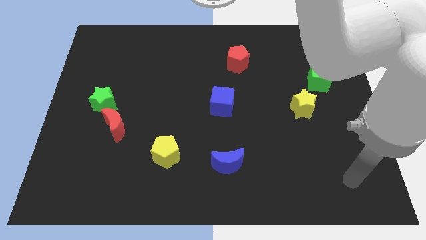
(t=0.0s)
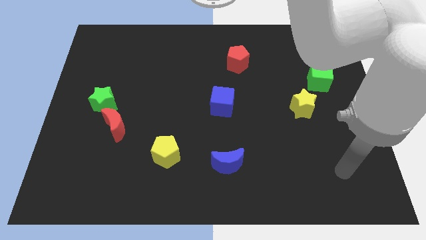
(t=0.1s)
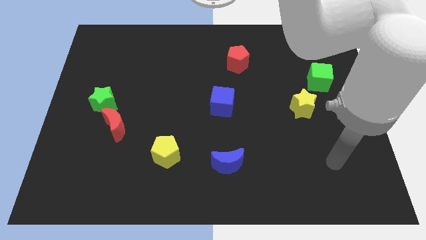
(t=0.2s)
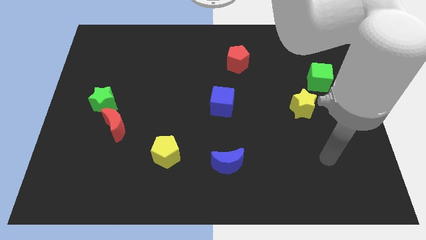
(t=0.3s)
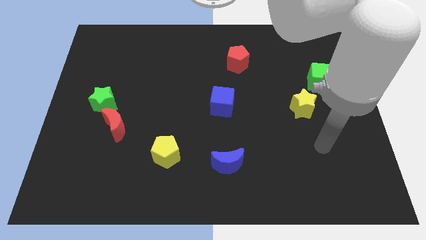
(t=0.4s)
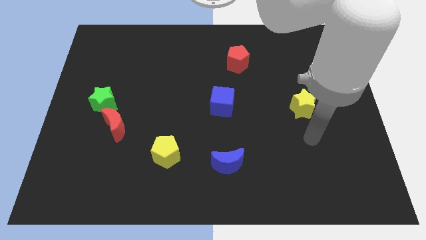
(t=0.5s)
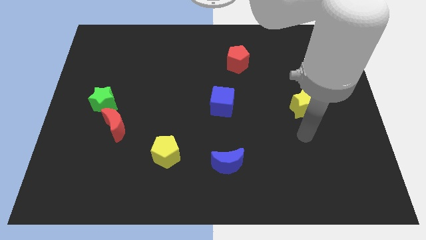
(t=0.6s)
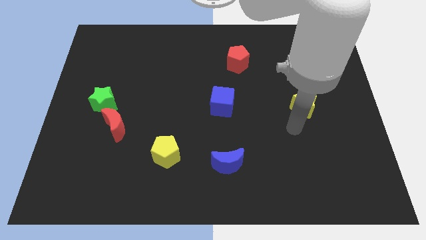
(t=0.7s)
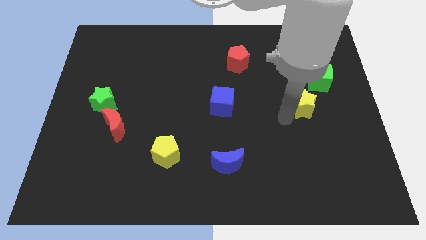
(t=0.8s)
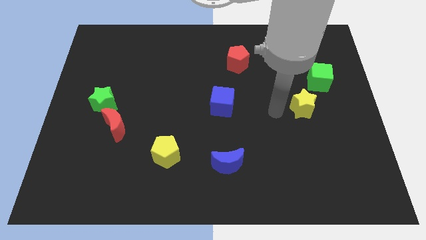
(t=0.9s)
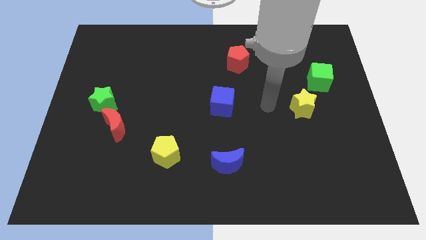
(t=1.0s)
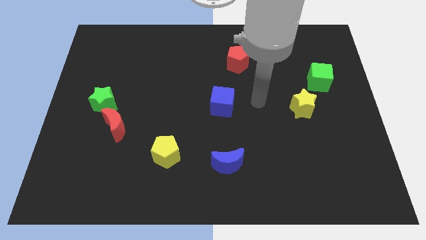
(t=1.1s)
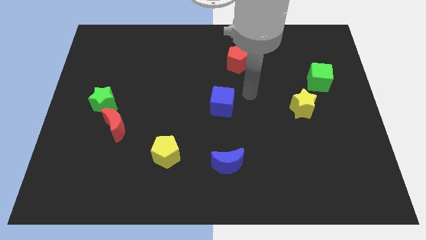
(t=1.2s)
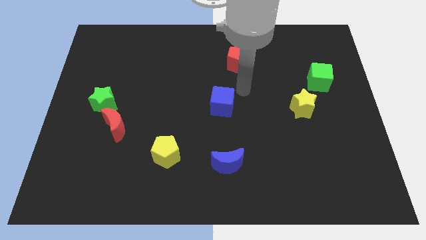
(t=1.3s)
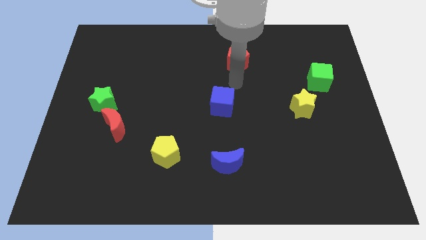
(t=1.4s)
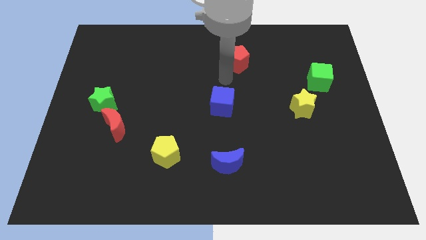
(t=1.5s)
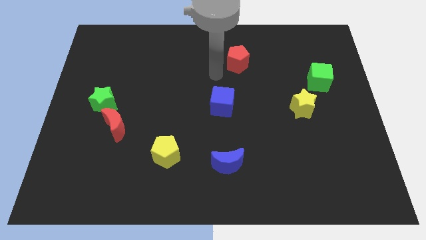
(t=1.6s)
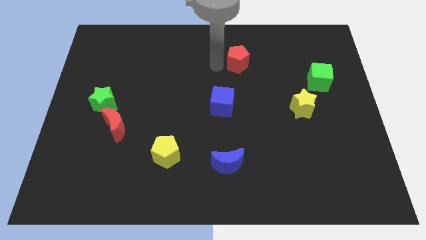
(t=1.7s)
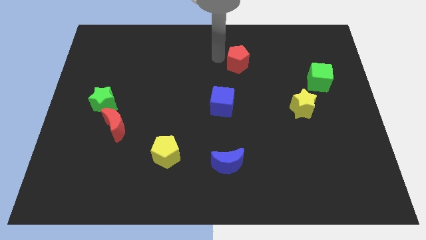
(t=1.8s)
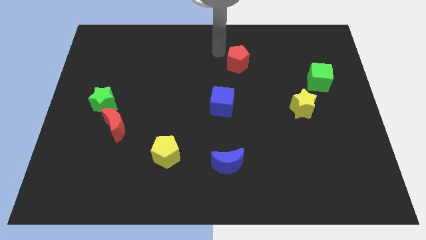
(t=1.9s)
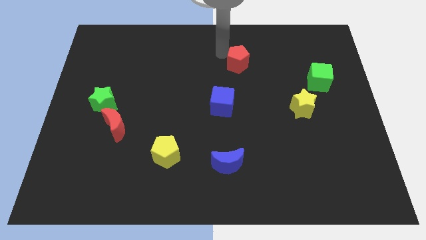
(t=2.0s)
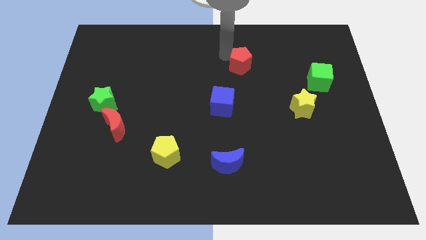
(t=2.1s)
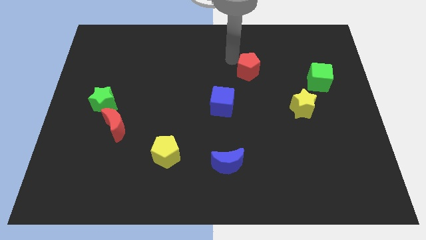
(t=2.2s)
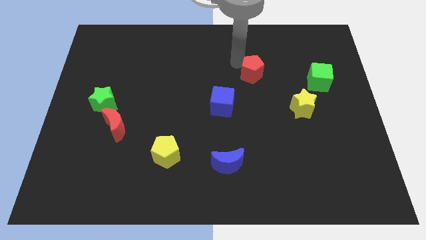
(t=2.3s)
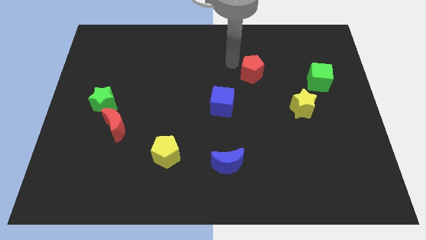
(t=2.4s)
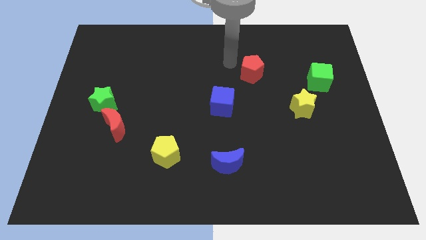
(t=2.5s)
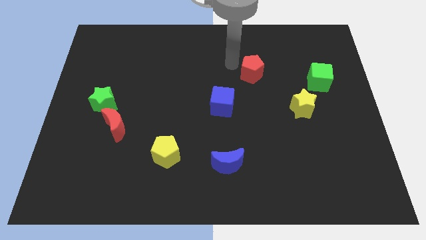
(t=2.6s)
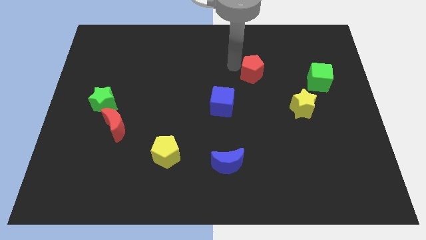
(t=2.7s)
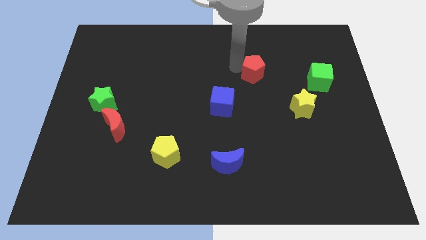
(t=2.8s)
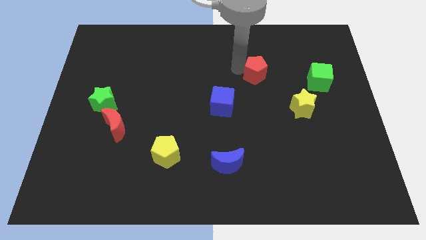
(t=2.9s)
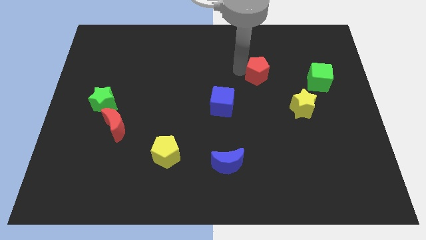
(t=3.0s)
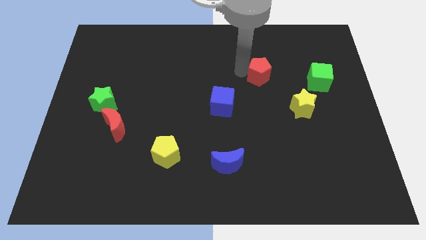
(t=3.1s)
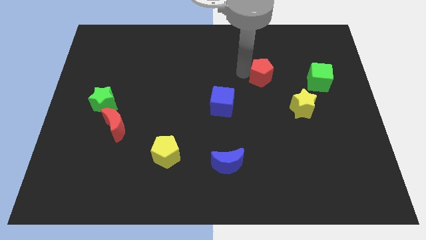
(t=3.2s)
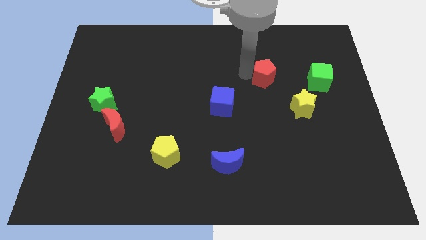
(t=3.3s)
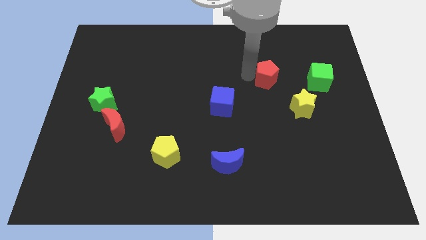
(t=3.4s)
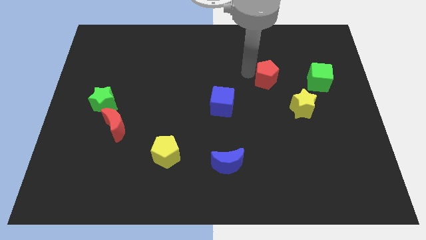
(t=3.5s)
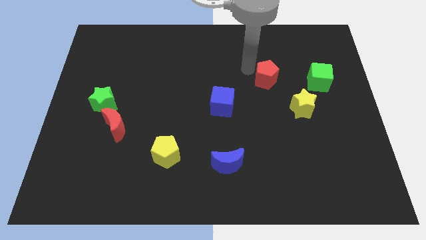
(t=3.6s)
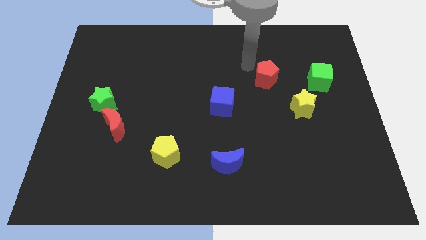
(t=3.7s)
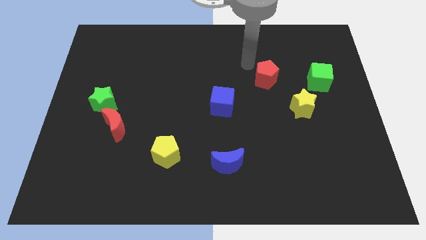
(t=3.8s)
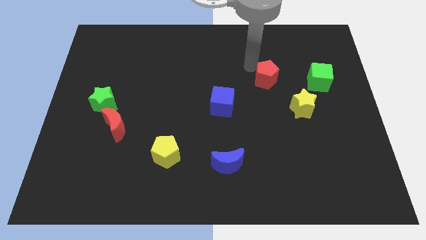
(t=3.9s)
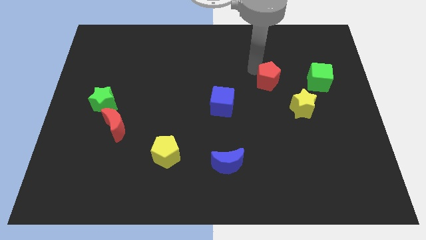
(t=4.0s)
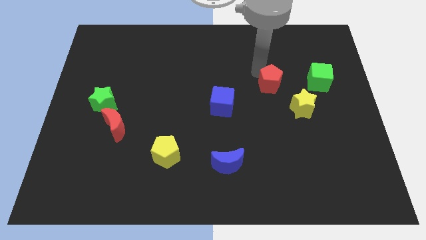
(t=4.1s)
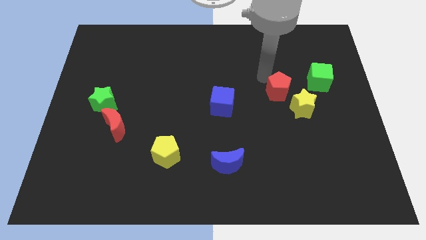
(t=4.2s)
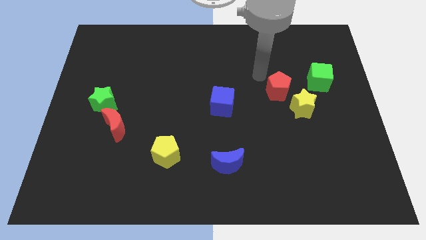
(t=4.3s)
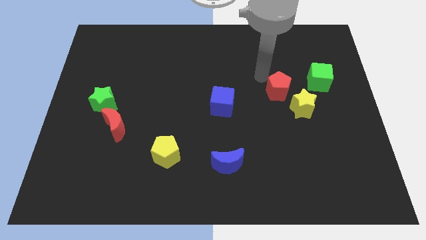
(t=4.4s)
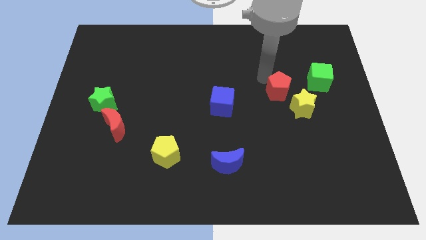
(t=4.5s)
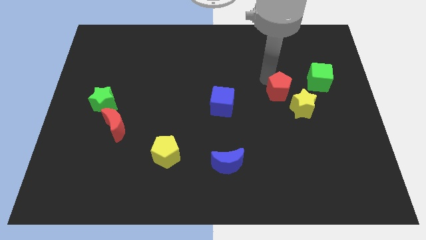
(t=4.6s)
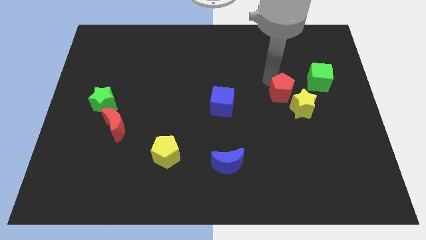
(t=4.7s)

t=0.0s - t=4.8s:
move the red pentagon next to the yellow star

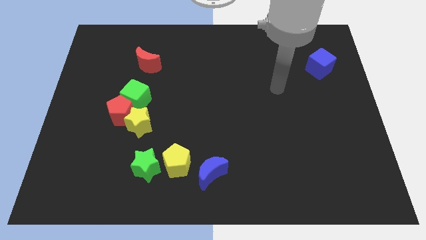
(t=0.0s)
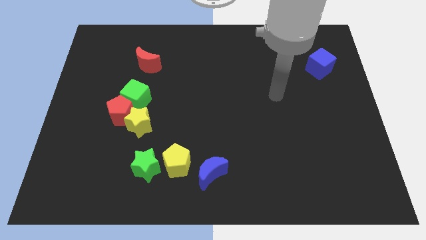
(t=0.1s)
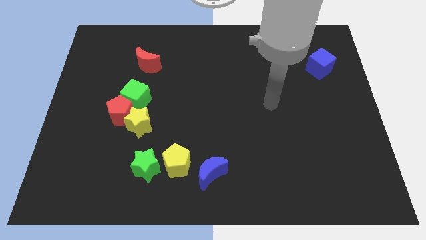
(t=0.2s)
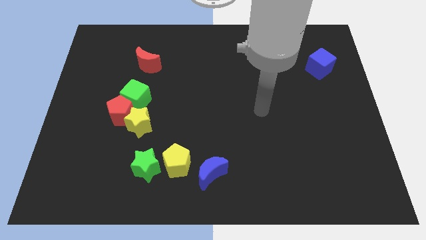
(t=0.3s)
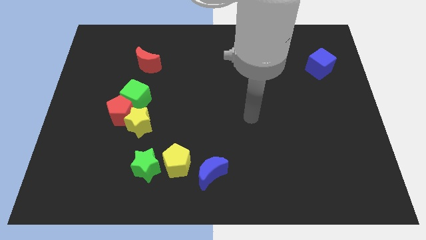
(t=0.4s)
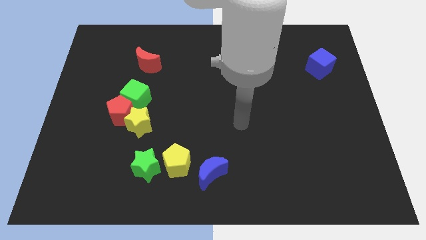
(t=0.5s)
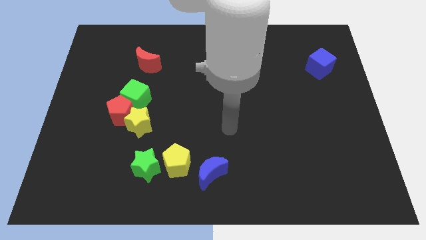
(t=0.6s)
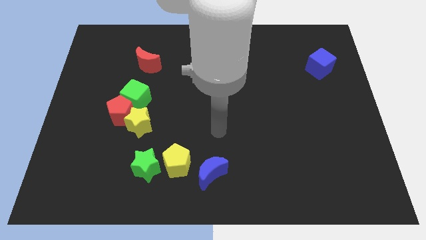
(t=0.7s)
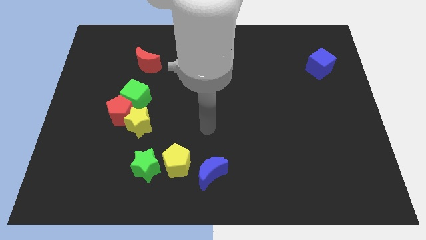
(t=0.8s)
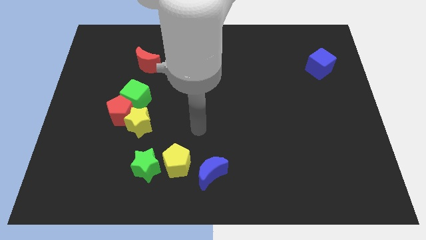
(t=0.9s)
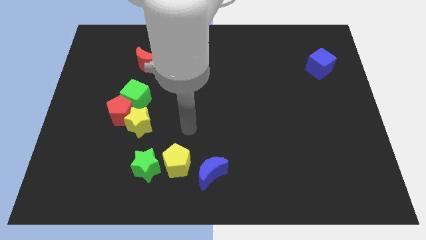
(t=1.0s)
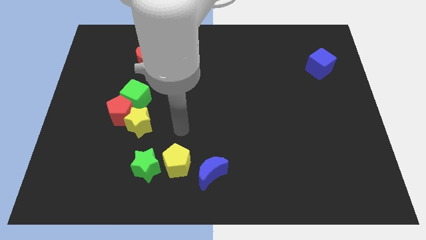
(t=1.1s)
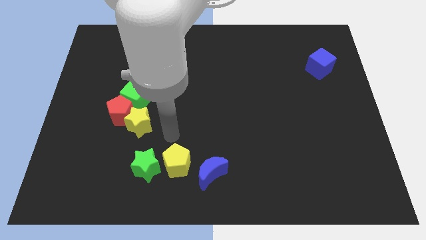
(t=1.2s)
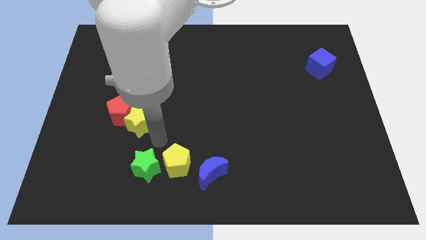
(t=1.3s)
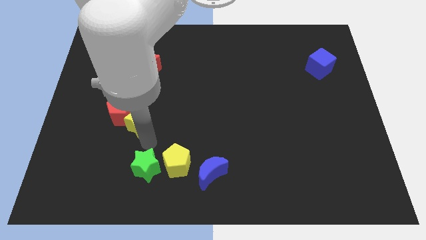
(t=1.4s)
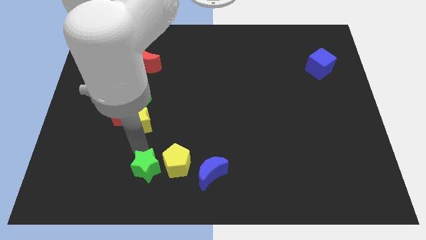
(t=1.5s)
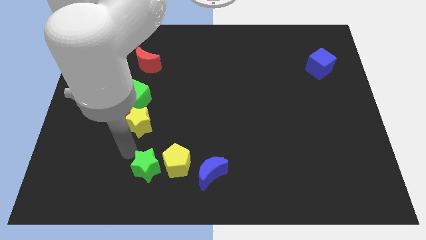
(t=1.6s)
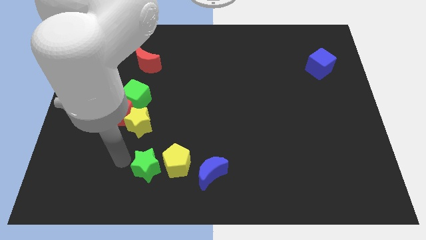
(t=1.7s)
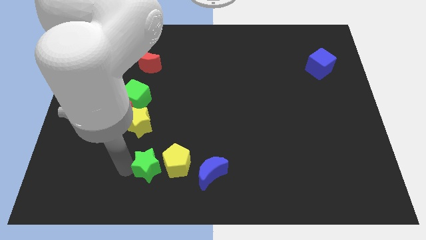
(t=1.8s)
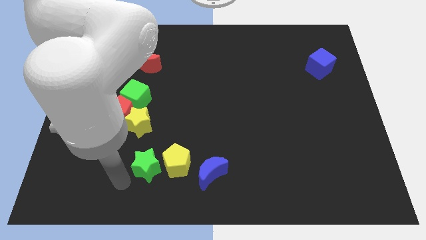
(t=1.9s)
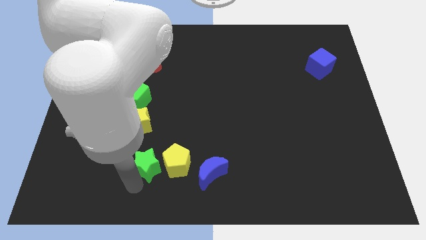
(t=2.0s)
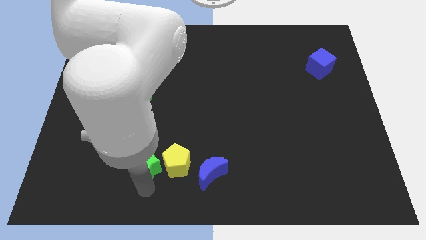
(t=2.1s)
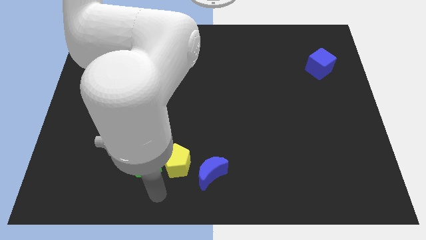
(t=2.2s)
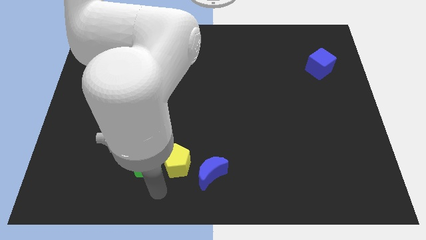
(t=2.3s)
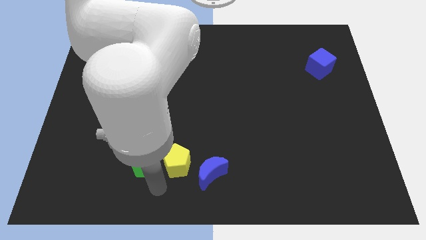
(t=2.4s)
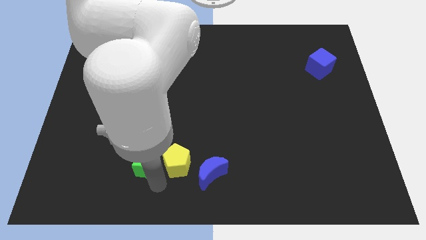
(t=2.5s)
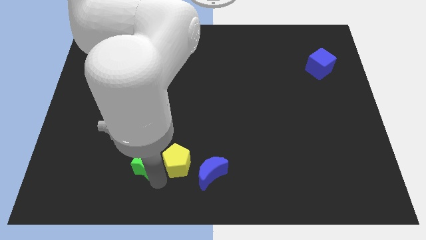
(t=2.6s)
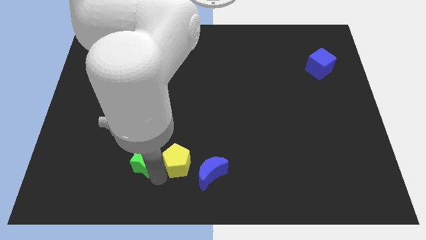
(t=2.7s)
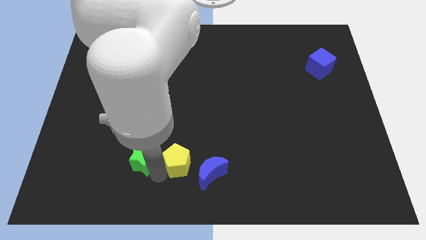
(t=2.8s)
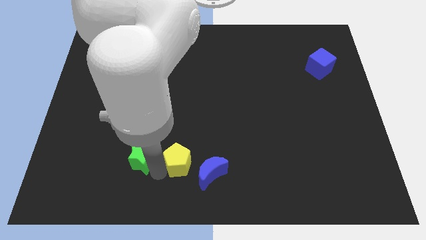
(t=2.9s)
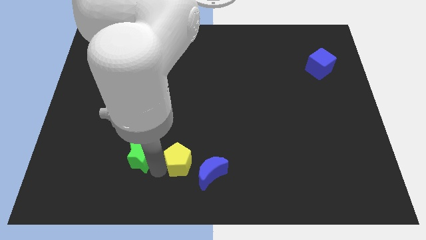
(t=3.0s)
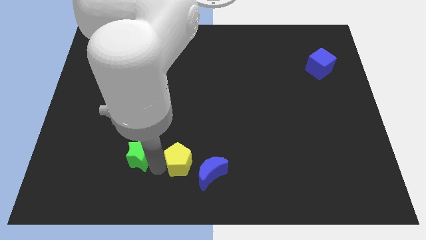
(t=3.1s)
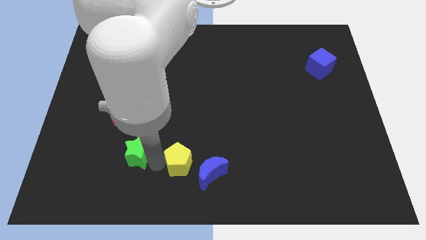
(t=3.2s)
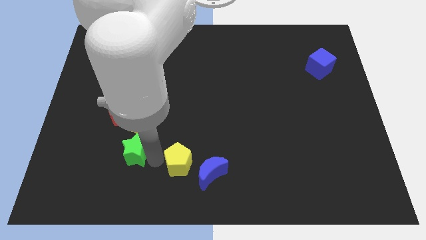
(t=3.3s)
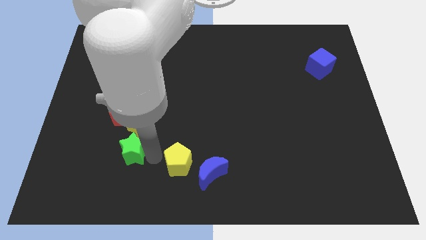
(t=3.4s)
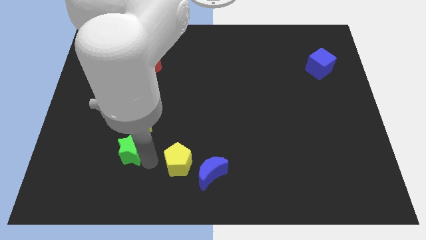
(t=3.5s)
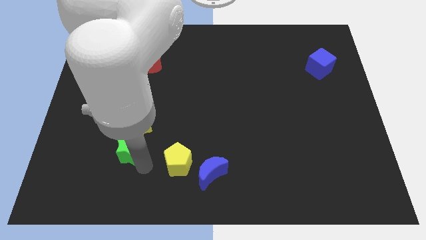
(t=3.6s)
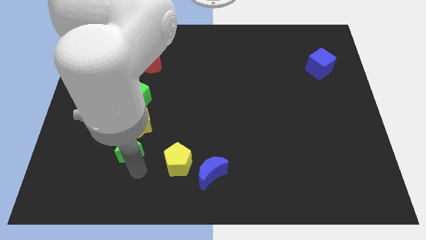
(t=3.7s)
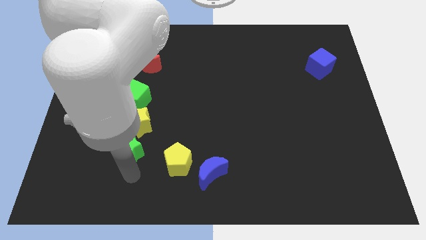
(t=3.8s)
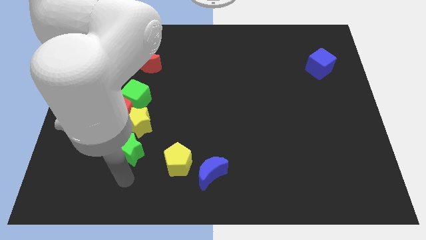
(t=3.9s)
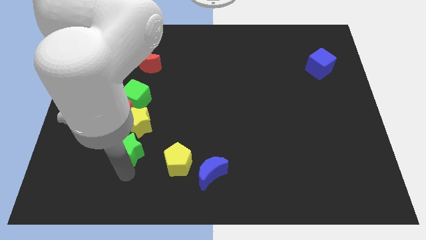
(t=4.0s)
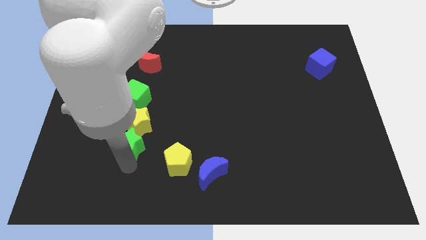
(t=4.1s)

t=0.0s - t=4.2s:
slide the green star to the yellow star
